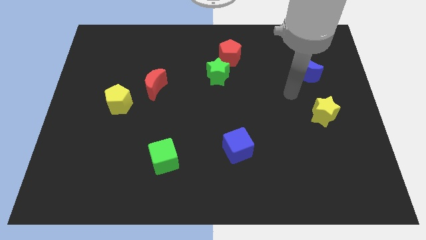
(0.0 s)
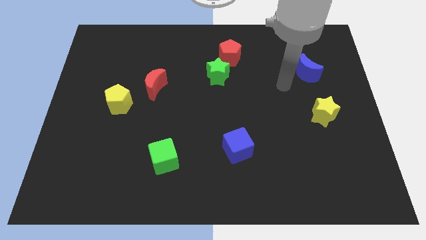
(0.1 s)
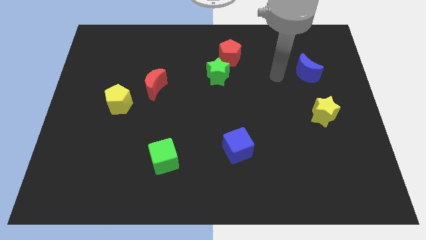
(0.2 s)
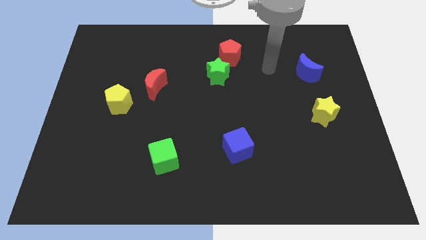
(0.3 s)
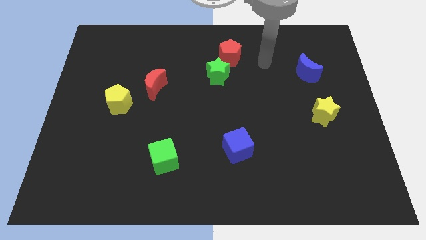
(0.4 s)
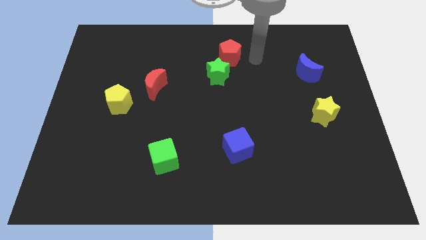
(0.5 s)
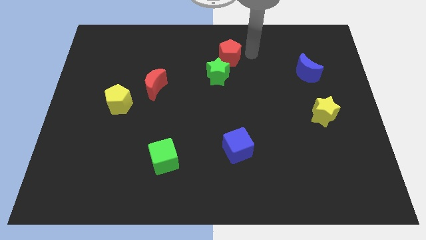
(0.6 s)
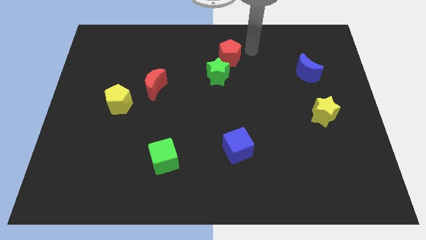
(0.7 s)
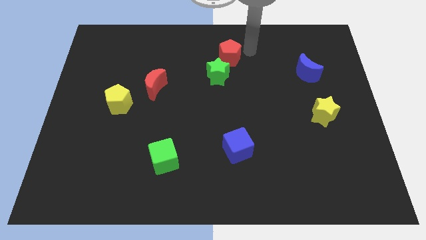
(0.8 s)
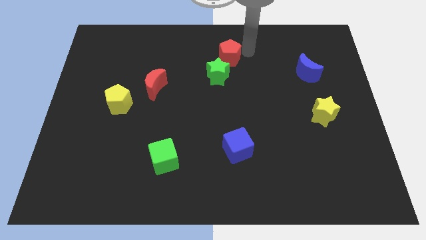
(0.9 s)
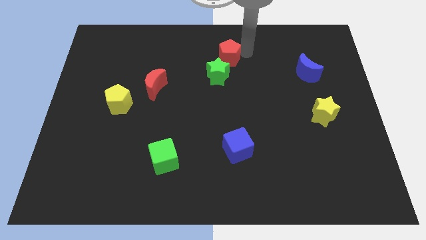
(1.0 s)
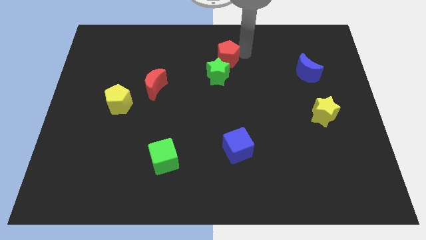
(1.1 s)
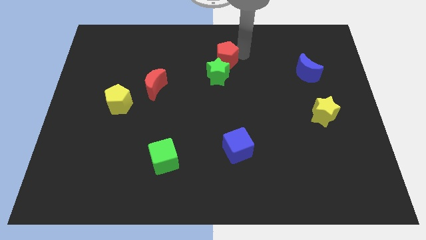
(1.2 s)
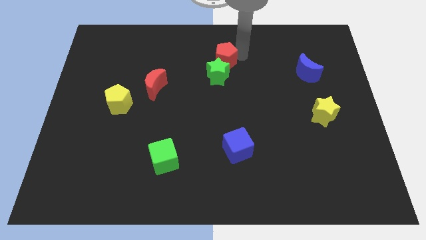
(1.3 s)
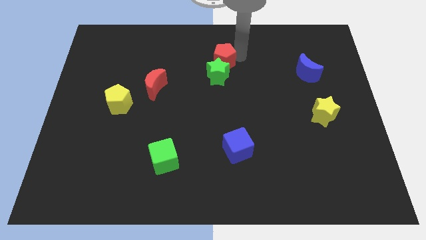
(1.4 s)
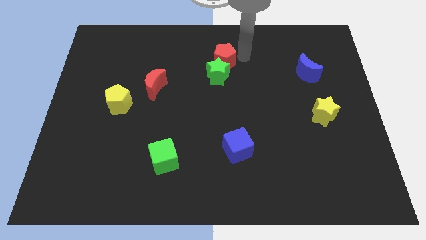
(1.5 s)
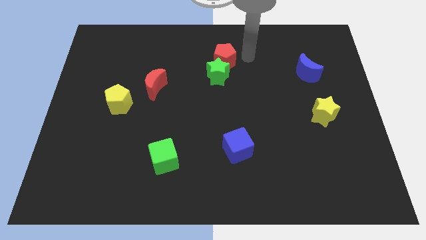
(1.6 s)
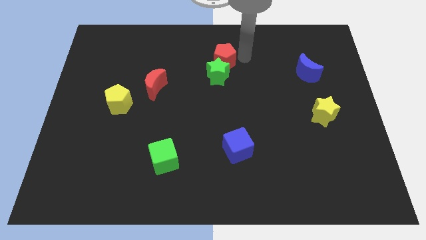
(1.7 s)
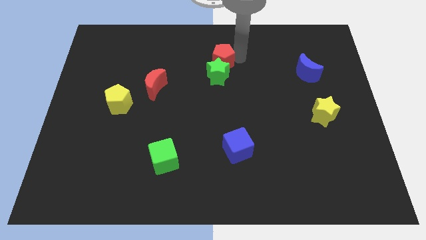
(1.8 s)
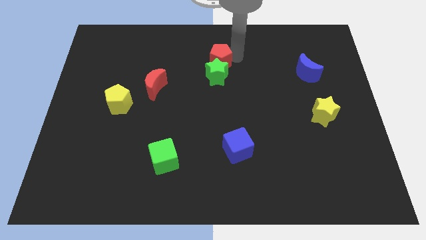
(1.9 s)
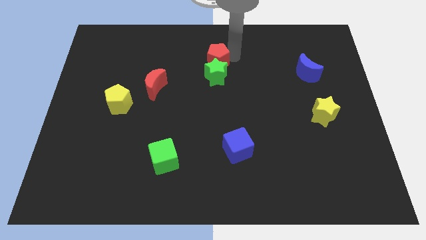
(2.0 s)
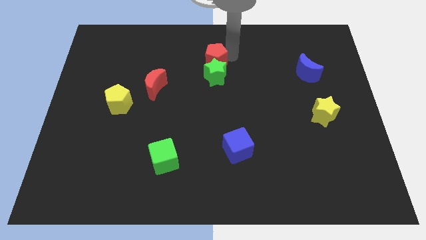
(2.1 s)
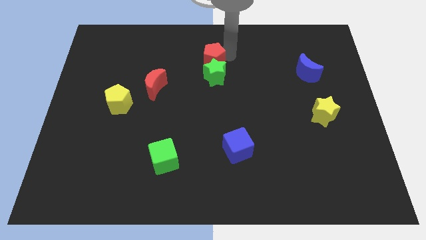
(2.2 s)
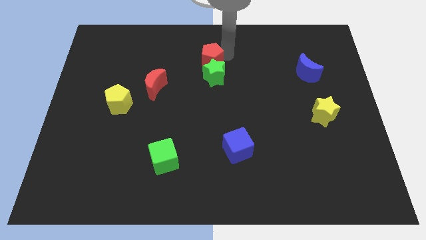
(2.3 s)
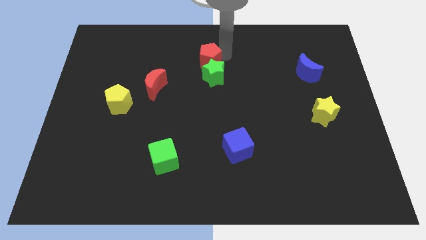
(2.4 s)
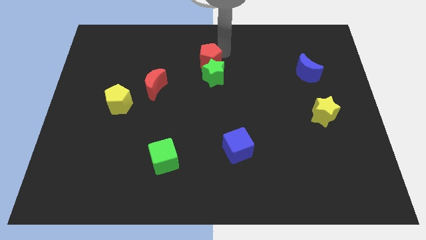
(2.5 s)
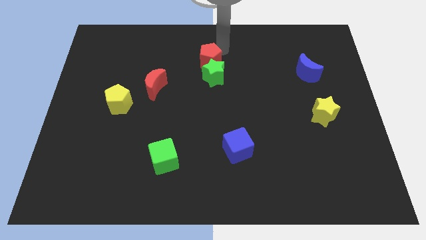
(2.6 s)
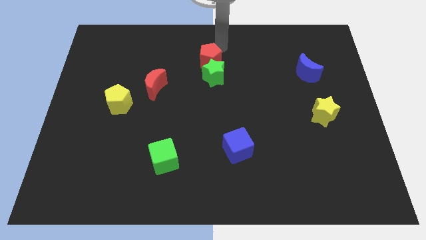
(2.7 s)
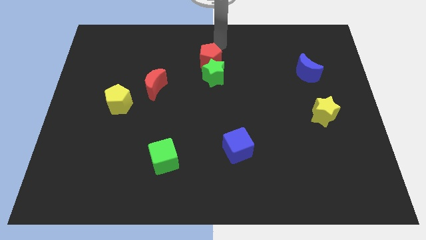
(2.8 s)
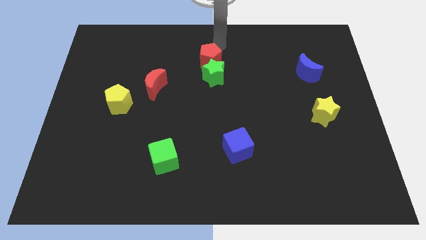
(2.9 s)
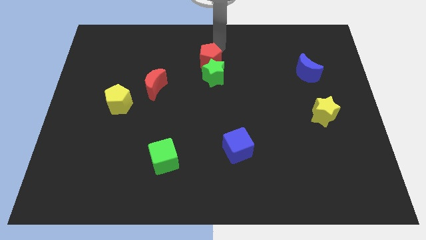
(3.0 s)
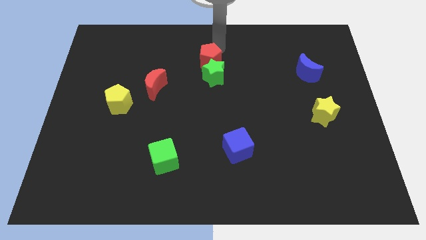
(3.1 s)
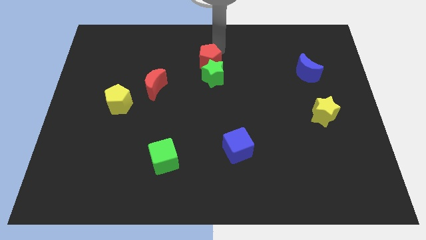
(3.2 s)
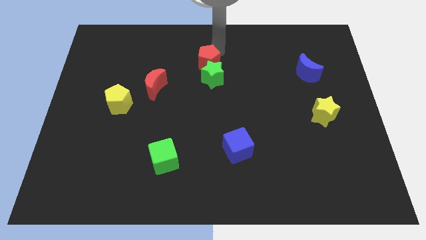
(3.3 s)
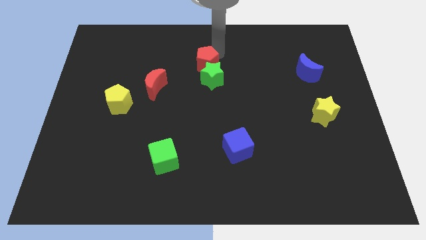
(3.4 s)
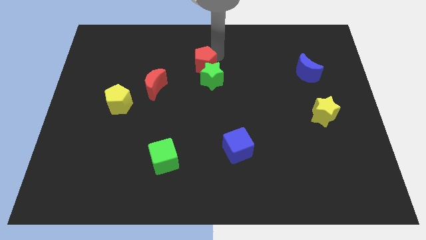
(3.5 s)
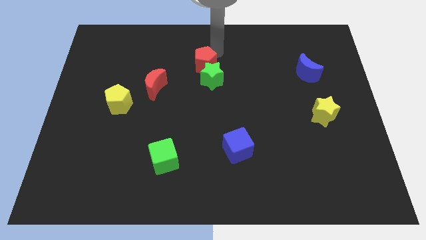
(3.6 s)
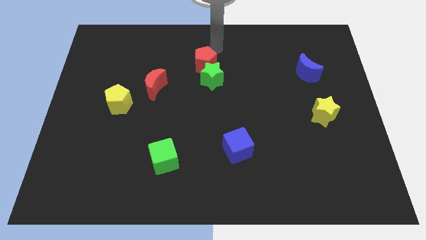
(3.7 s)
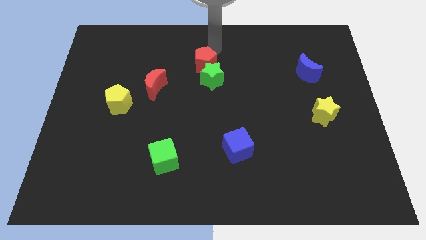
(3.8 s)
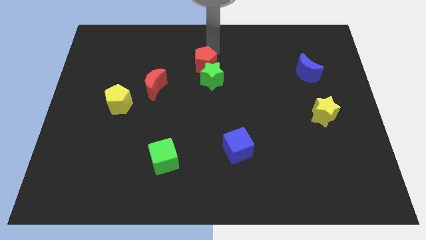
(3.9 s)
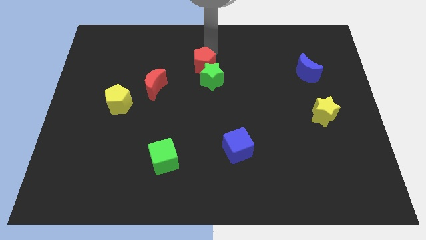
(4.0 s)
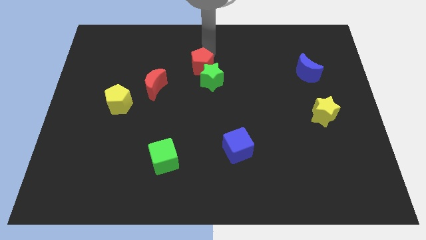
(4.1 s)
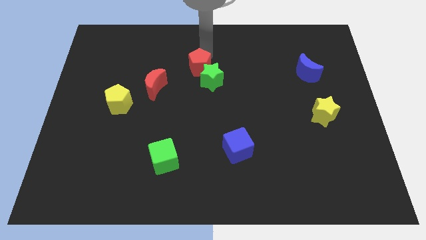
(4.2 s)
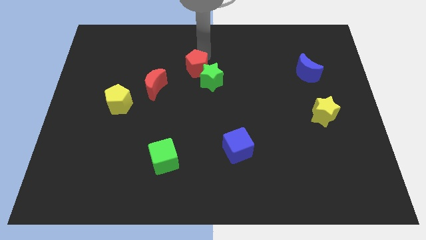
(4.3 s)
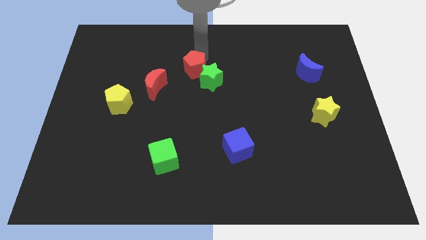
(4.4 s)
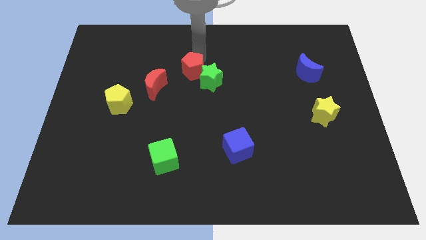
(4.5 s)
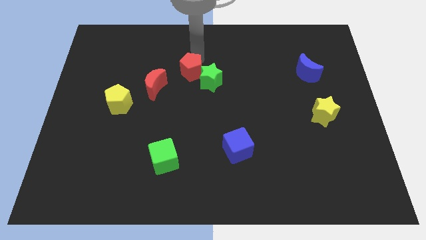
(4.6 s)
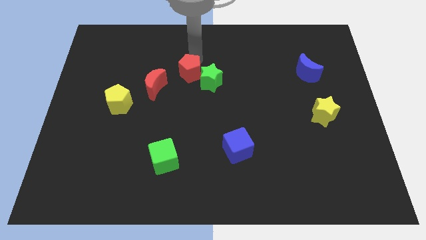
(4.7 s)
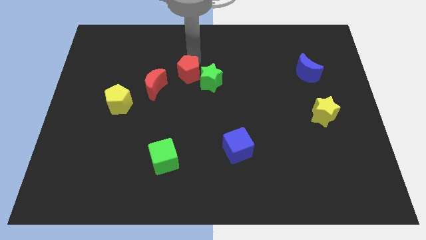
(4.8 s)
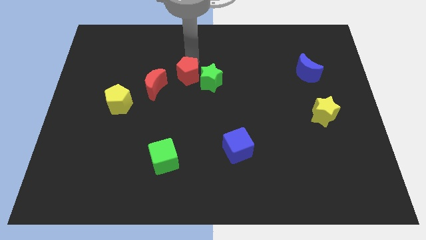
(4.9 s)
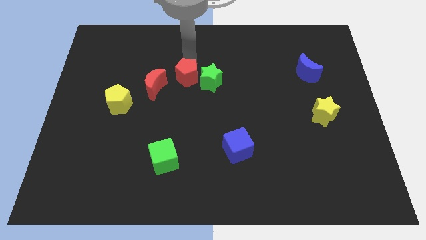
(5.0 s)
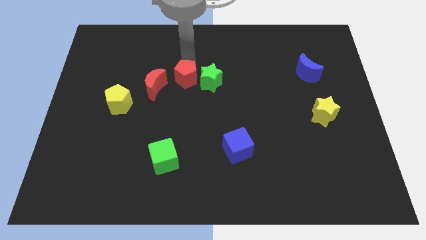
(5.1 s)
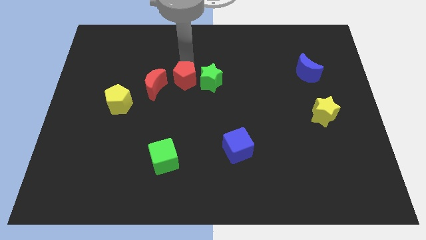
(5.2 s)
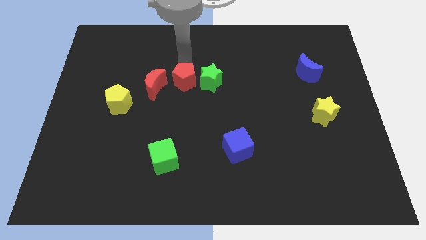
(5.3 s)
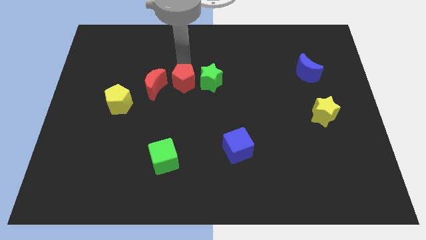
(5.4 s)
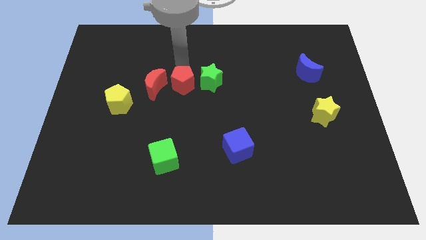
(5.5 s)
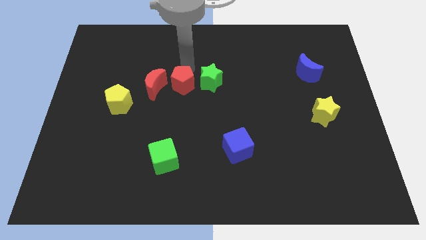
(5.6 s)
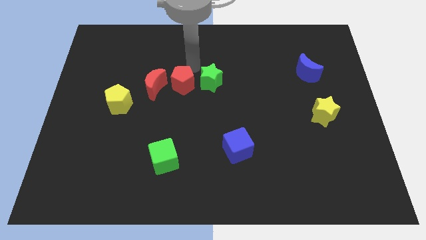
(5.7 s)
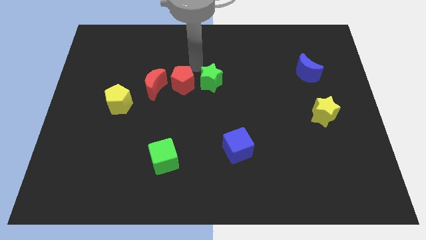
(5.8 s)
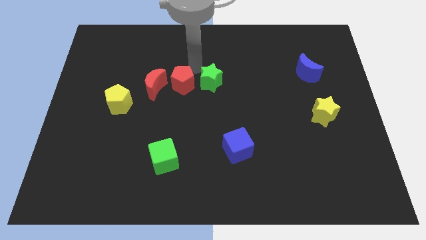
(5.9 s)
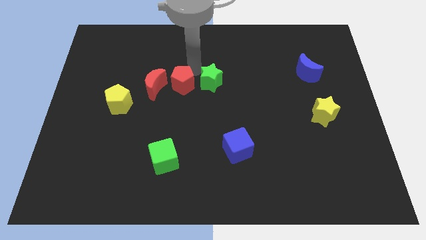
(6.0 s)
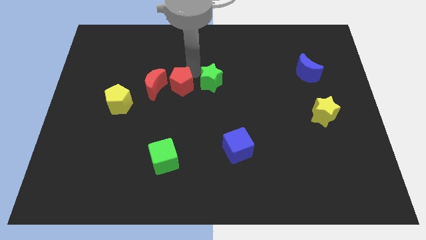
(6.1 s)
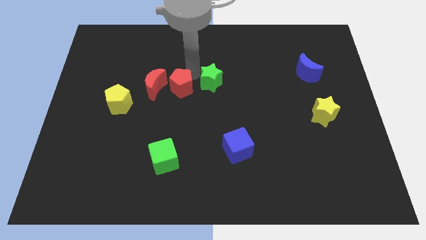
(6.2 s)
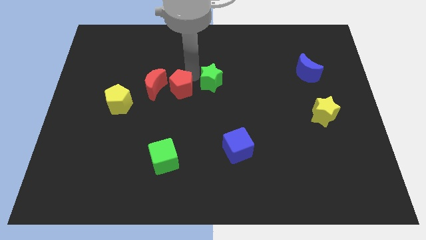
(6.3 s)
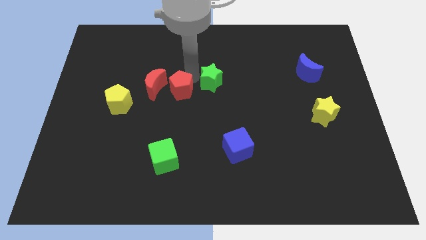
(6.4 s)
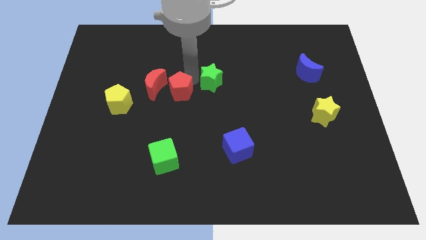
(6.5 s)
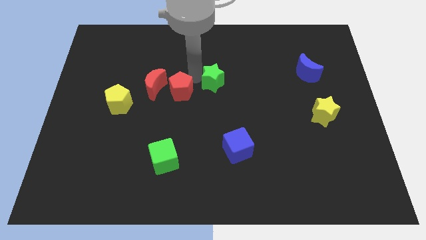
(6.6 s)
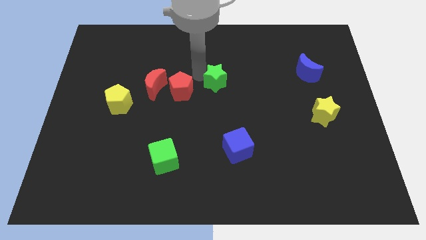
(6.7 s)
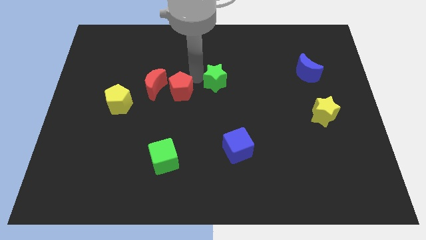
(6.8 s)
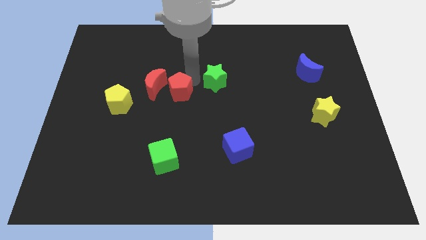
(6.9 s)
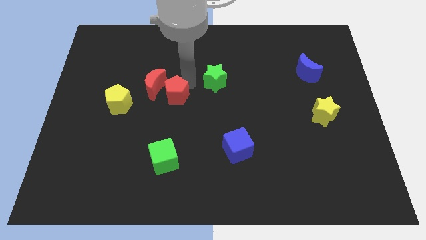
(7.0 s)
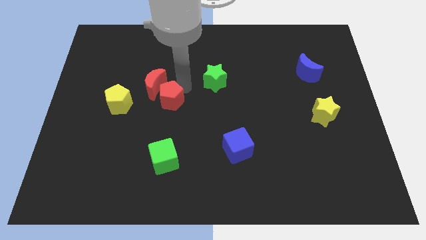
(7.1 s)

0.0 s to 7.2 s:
slide the red pentagon diagonally downwards and to the left

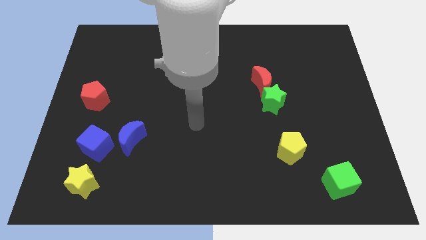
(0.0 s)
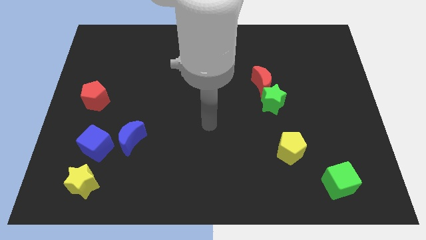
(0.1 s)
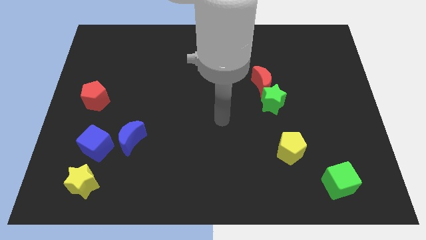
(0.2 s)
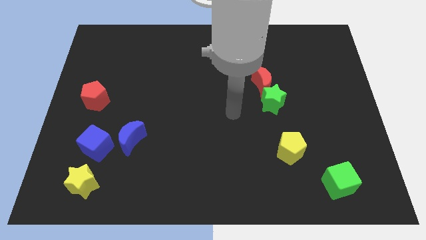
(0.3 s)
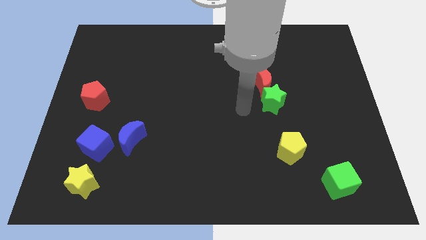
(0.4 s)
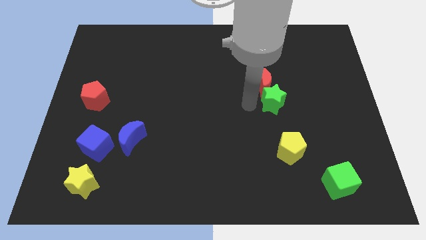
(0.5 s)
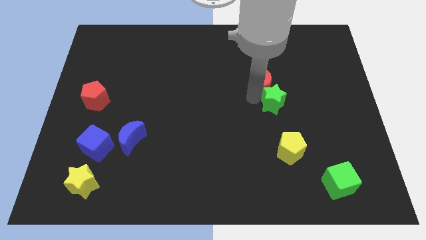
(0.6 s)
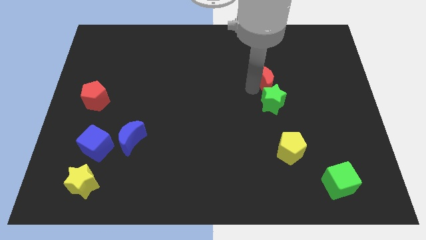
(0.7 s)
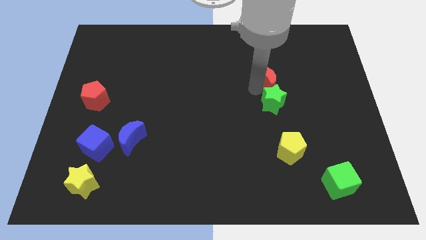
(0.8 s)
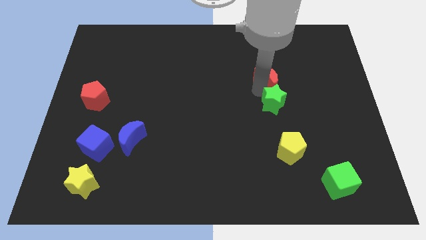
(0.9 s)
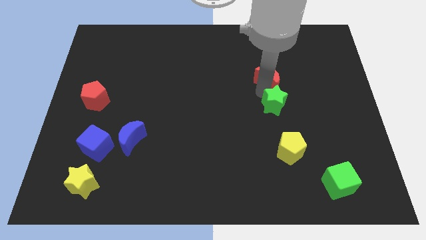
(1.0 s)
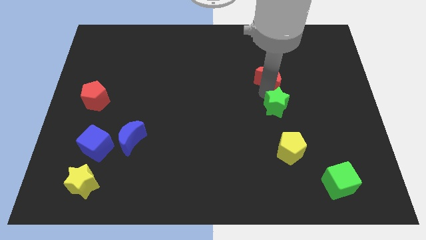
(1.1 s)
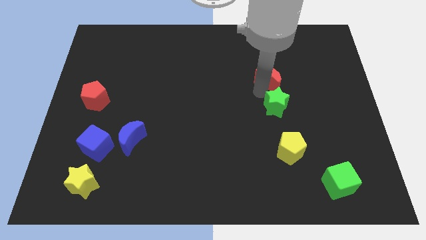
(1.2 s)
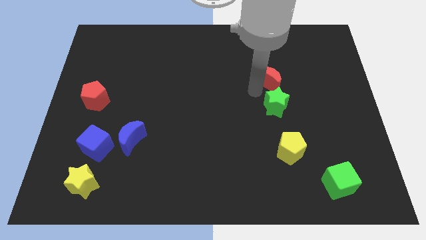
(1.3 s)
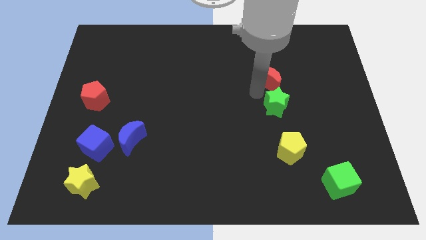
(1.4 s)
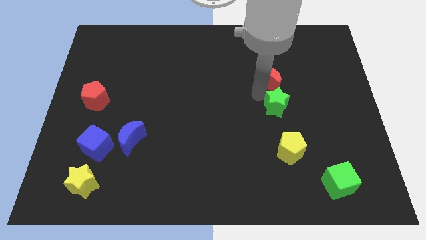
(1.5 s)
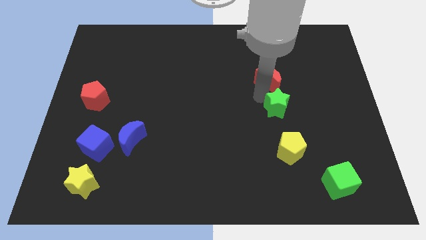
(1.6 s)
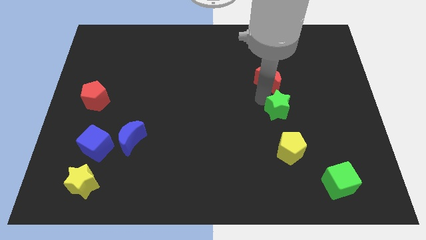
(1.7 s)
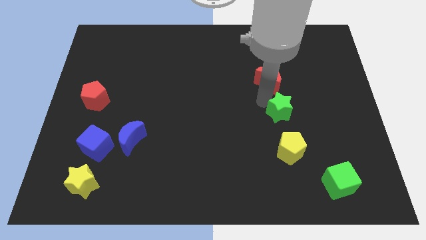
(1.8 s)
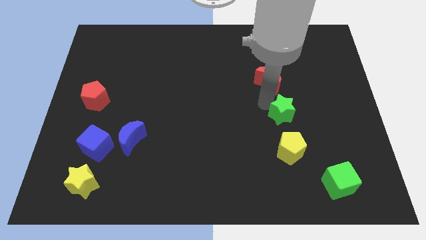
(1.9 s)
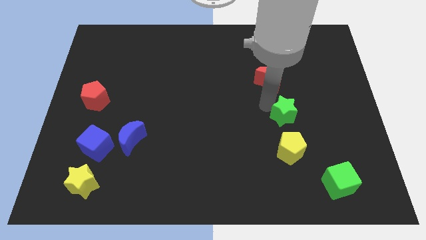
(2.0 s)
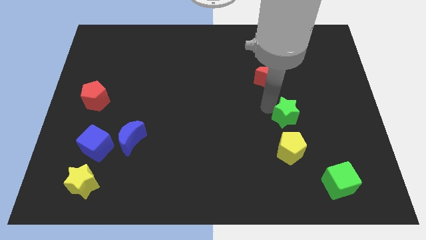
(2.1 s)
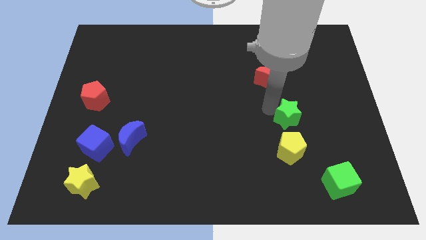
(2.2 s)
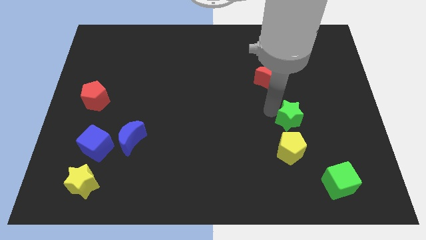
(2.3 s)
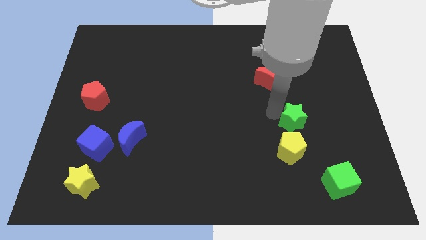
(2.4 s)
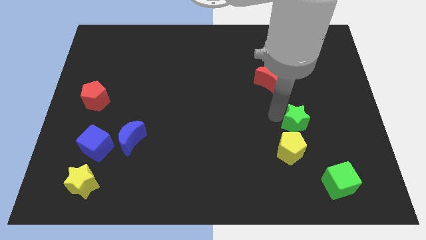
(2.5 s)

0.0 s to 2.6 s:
push the green star down and right diagonally a bit
